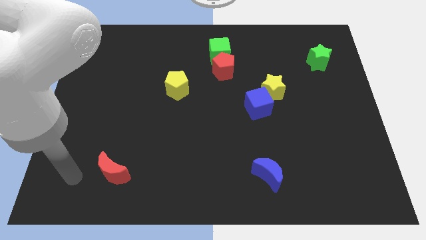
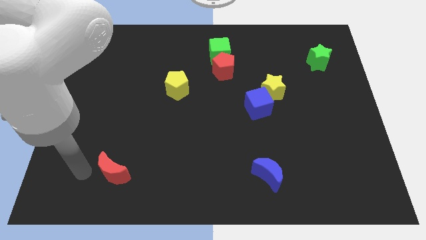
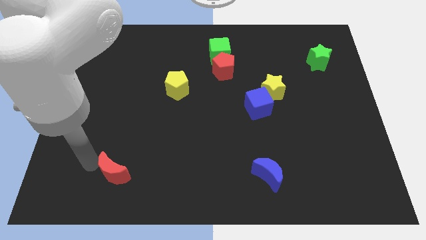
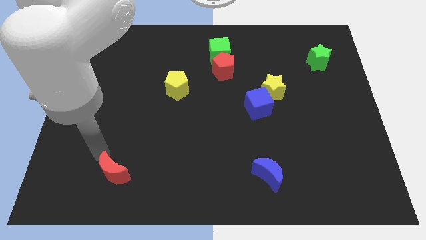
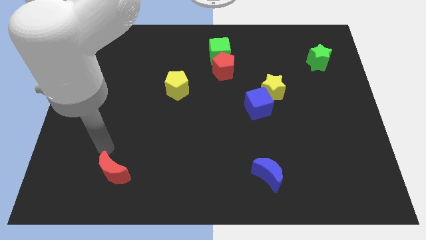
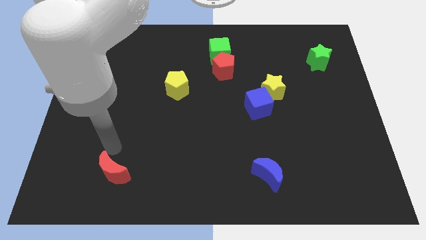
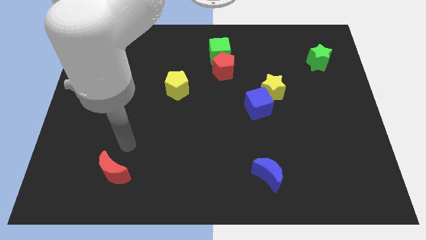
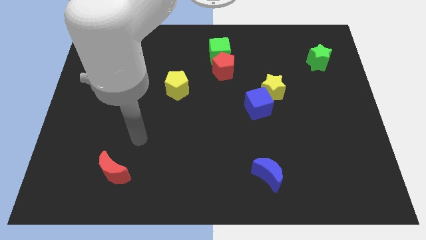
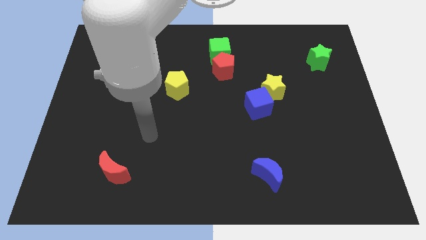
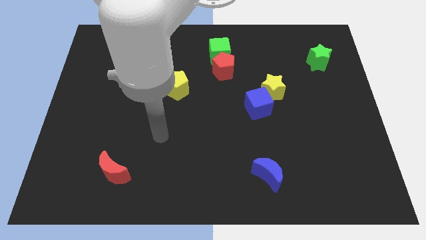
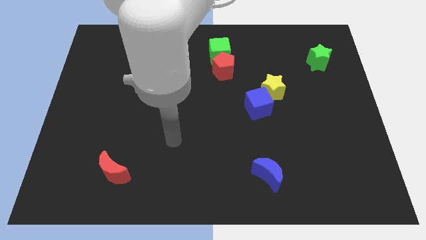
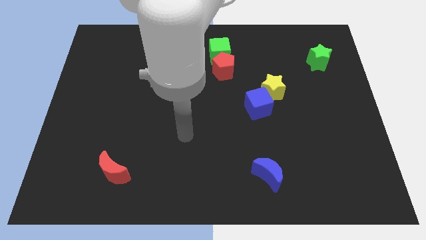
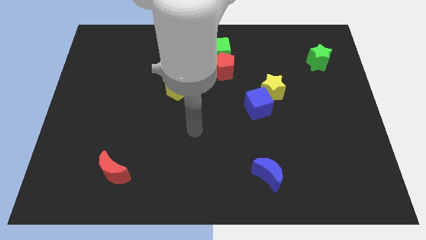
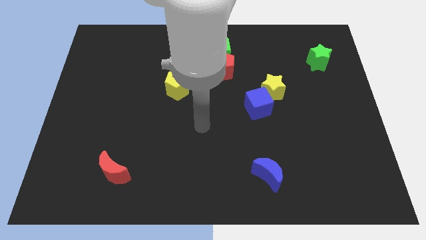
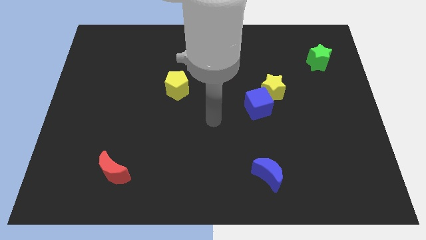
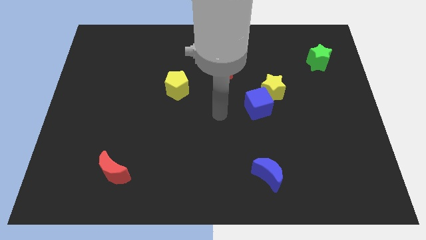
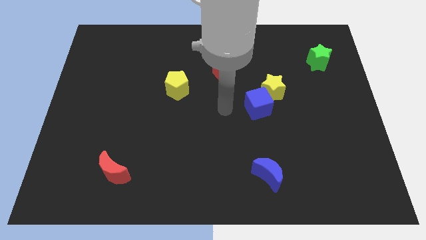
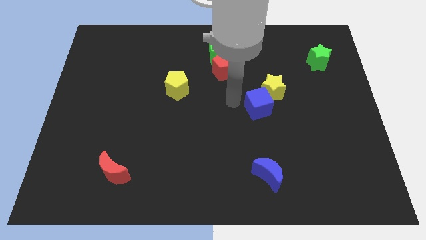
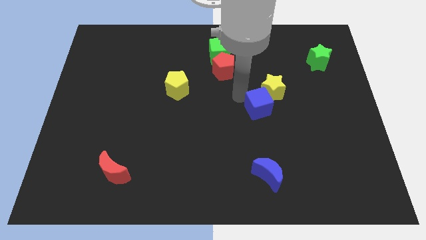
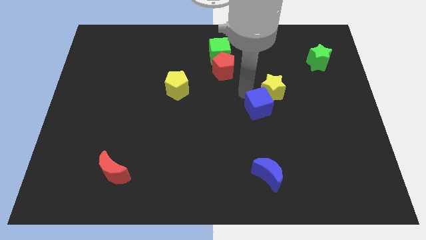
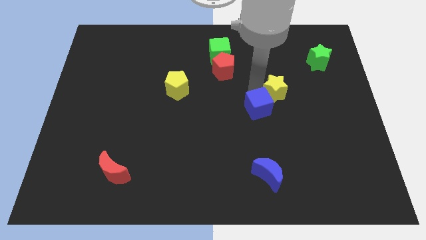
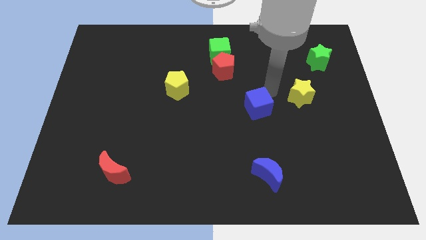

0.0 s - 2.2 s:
separate the blue cube from the yellow star

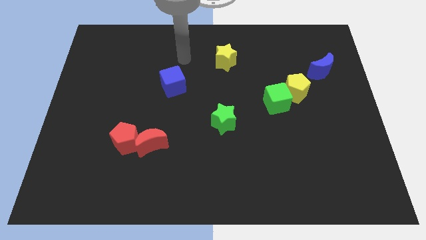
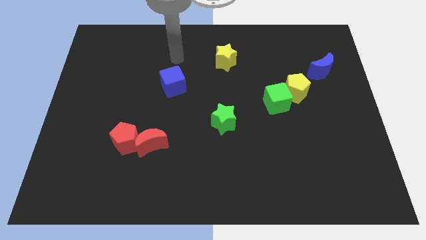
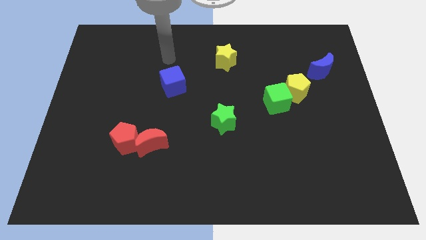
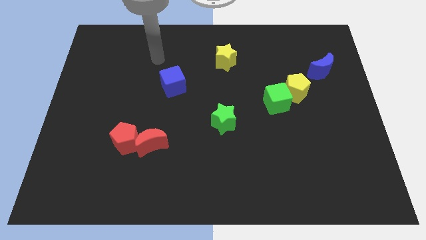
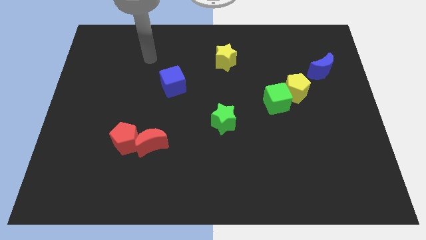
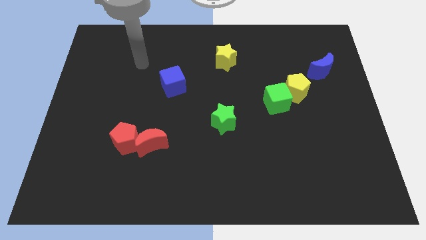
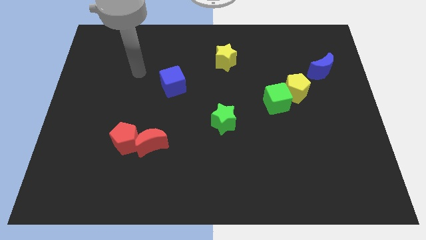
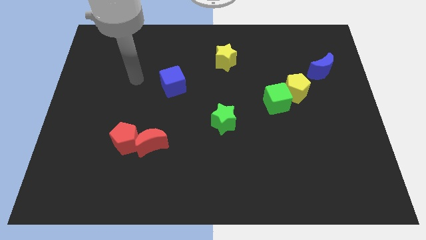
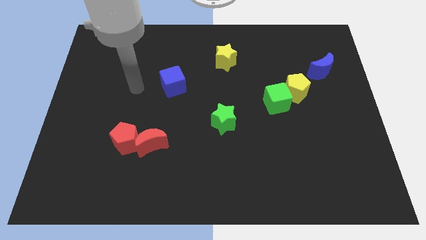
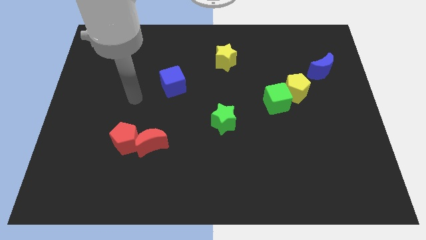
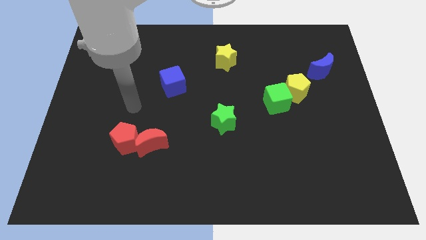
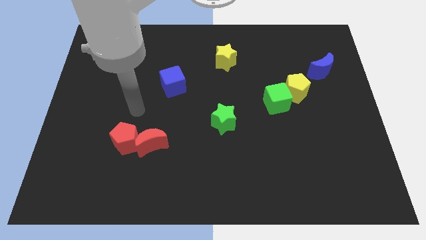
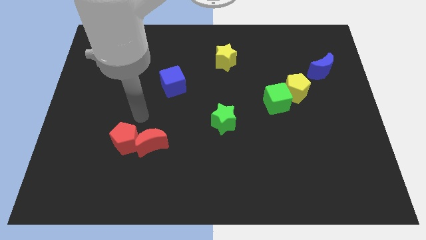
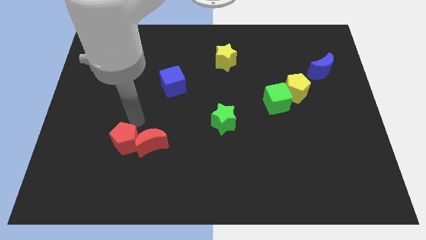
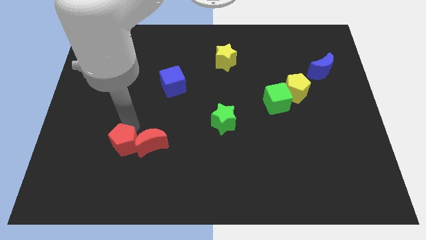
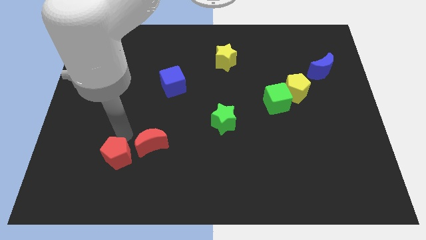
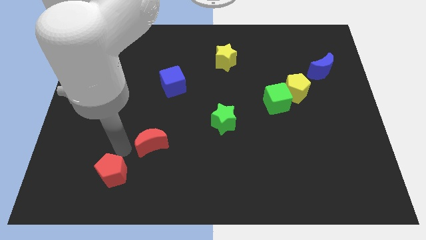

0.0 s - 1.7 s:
move the red moon away from the red pentagon

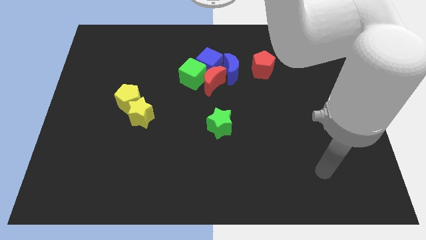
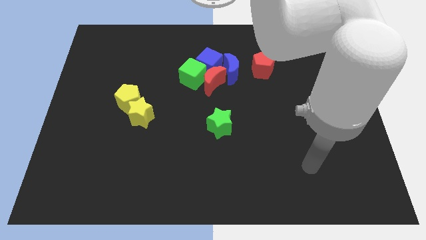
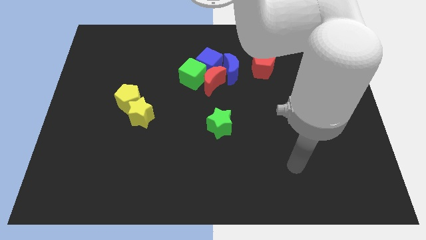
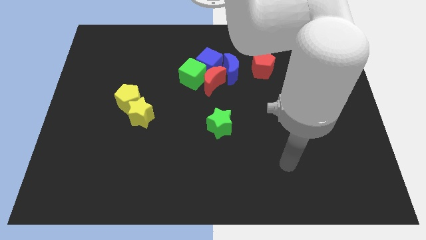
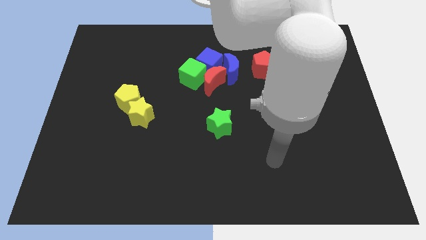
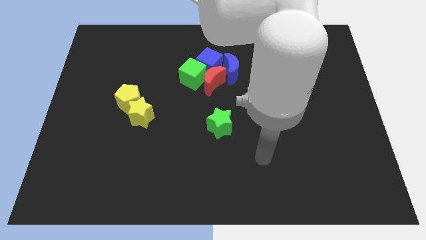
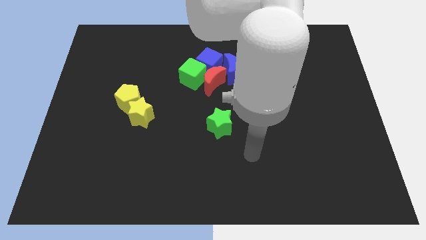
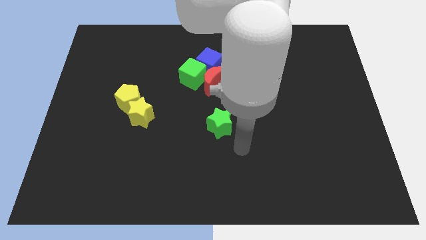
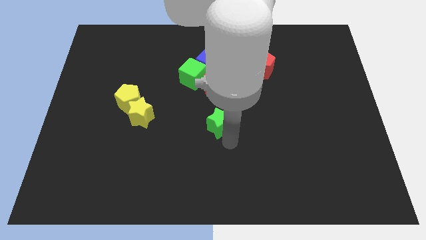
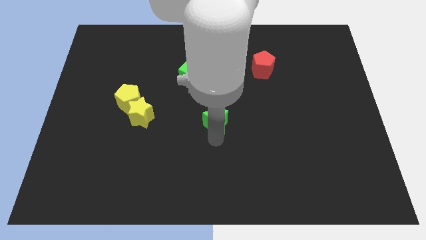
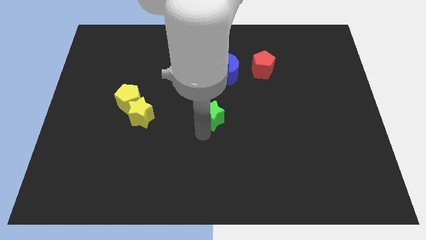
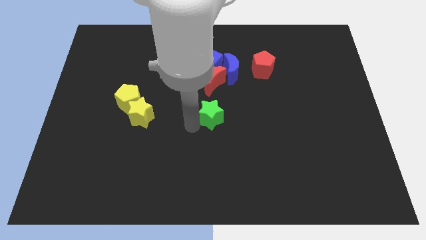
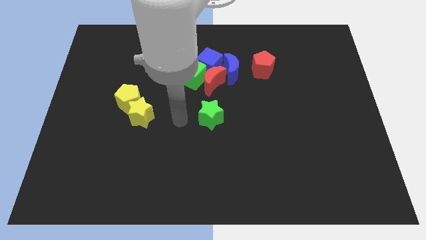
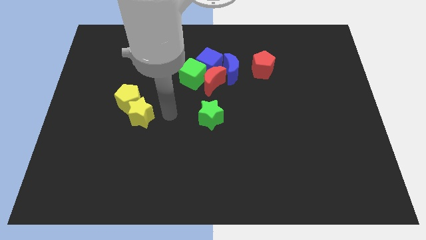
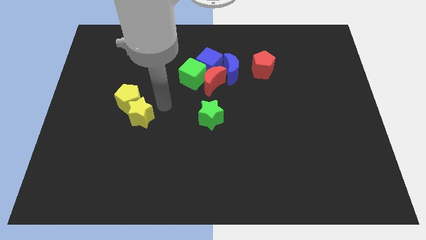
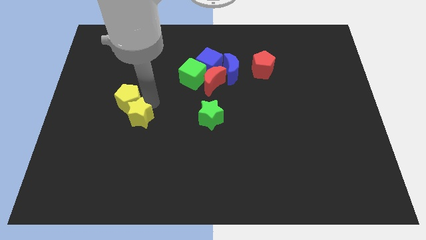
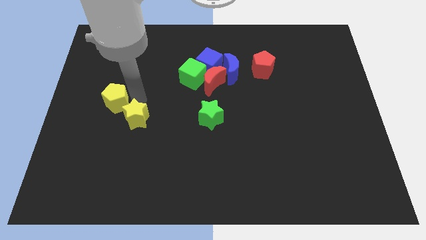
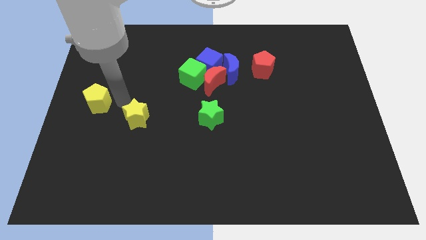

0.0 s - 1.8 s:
pull the yellow star apart from the yellow pentagon

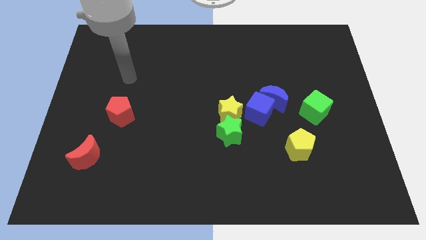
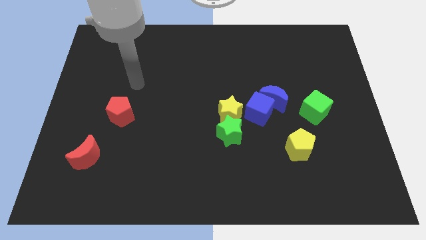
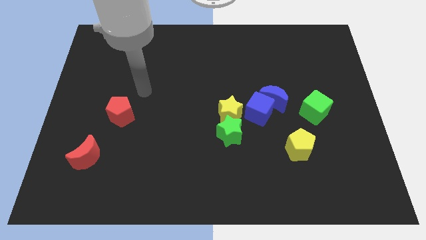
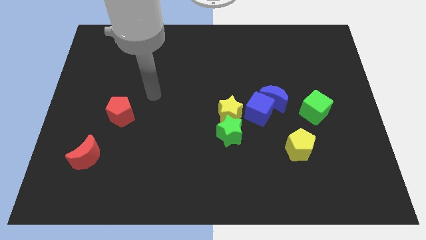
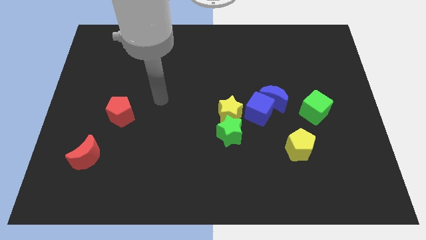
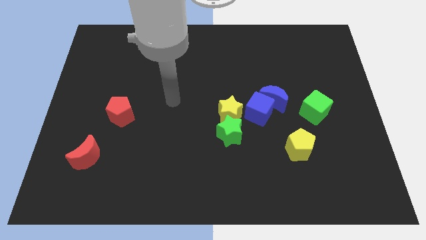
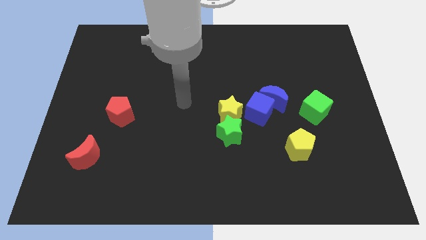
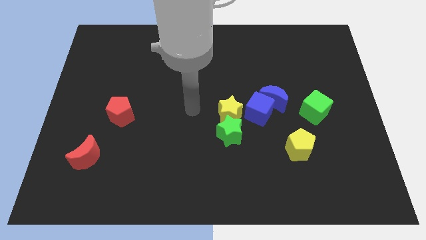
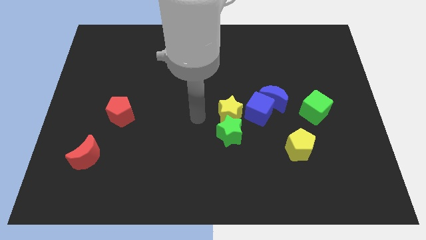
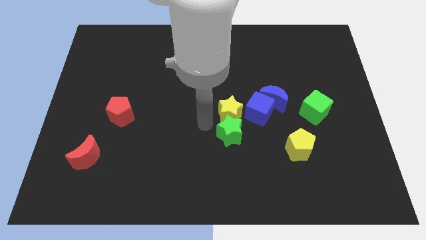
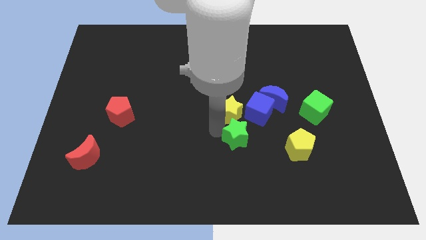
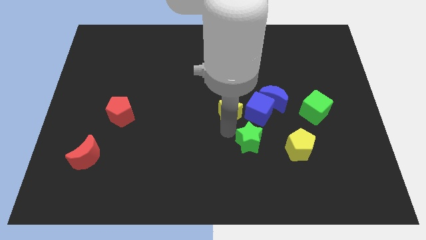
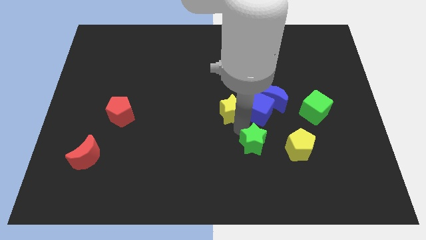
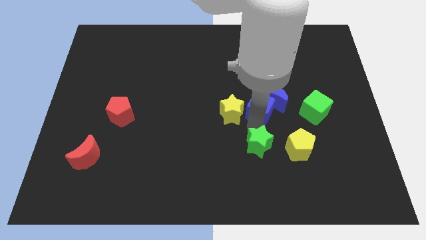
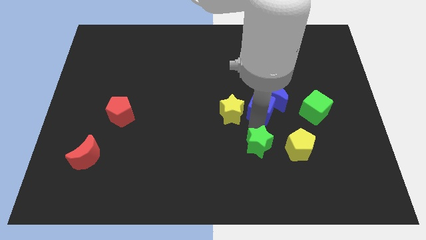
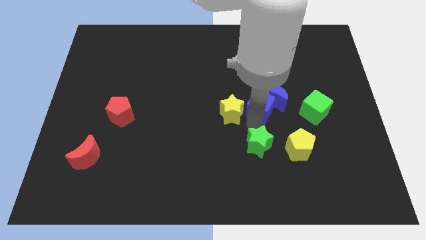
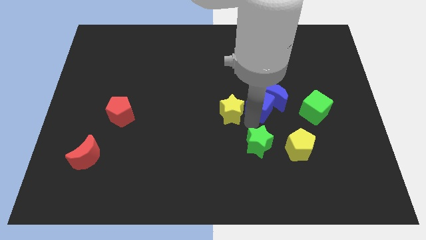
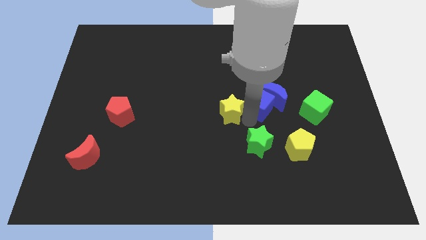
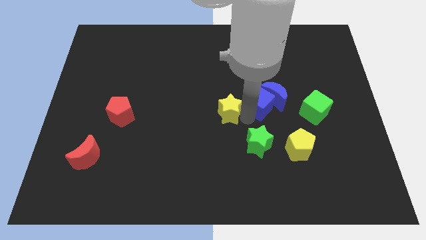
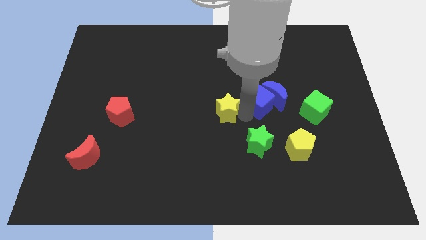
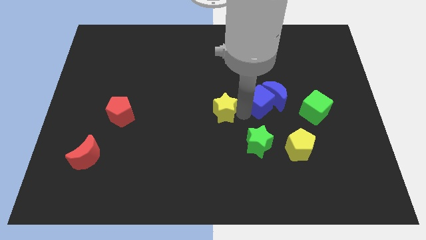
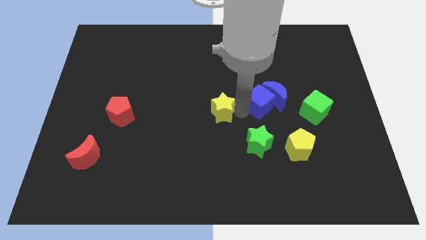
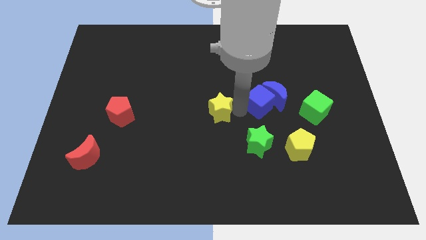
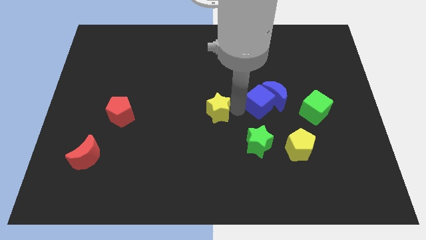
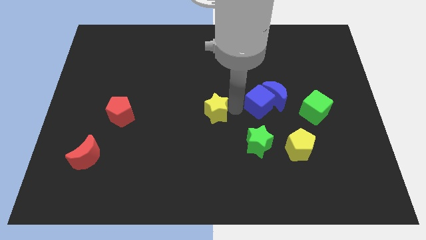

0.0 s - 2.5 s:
move the yellow star away from the green star and blue cube

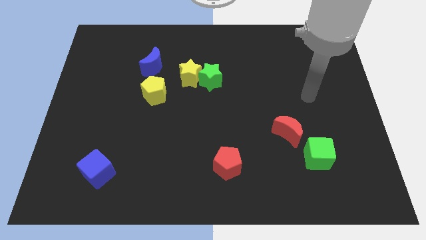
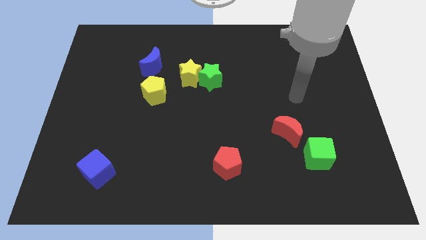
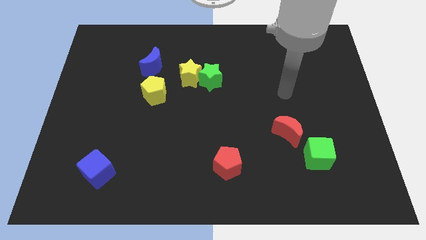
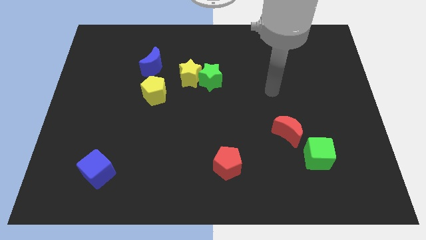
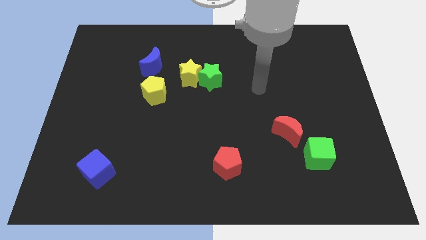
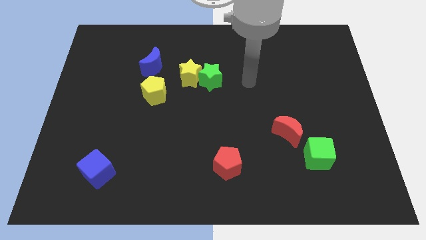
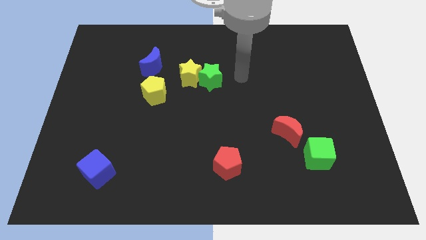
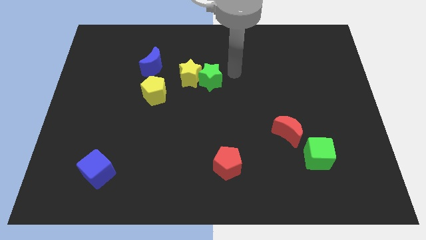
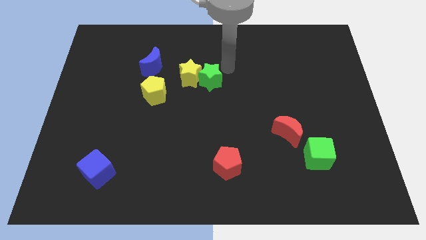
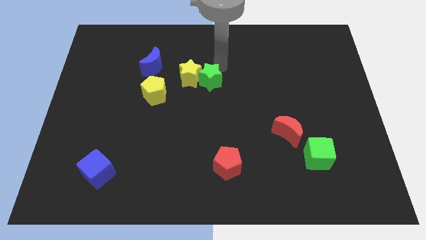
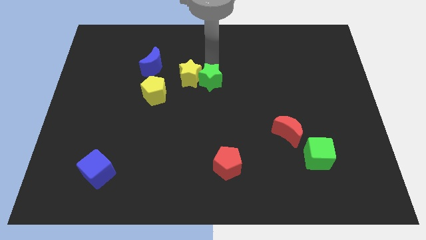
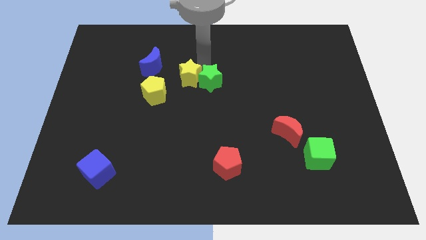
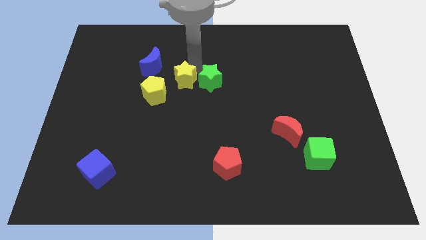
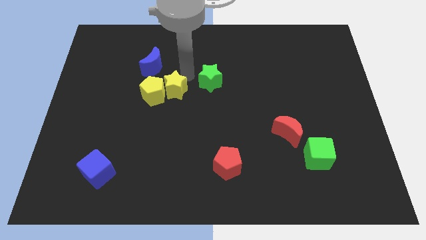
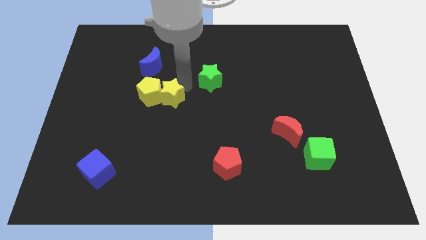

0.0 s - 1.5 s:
pull the green star apart from the yellow star
